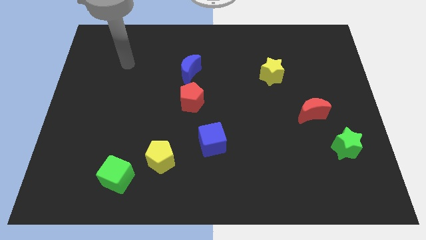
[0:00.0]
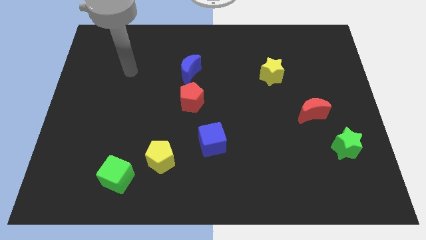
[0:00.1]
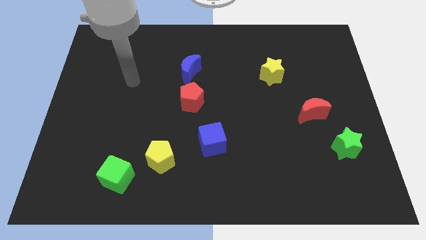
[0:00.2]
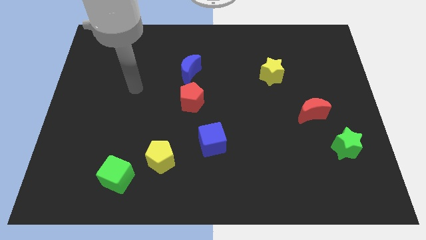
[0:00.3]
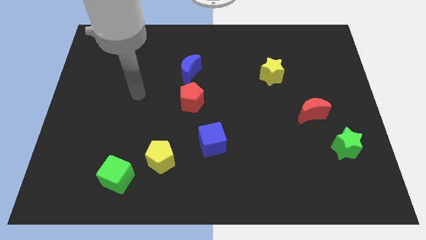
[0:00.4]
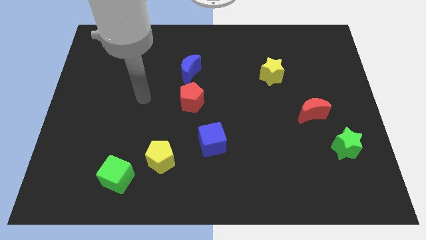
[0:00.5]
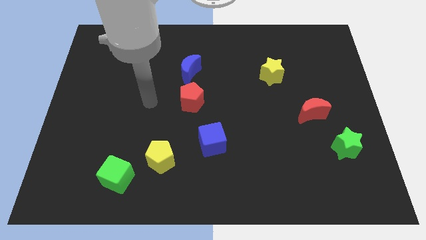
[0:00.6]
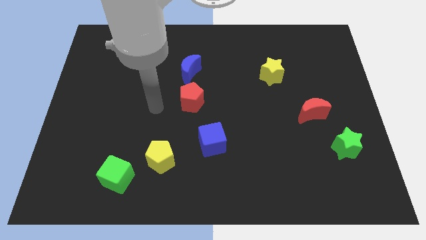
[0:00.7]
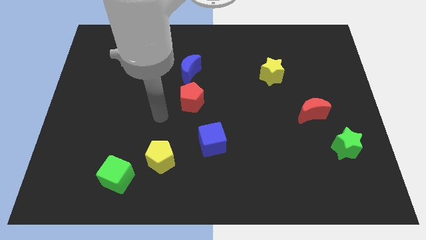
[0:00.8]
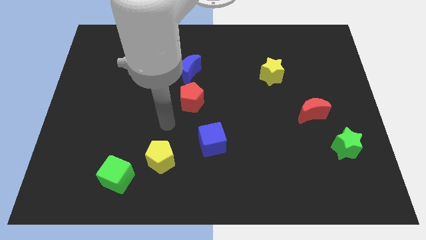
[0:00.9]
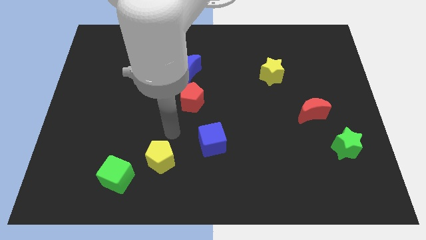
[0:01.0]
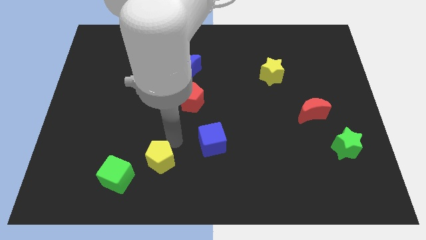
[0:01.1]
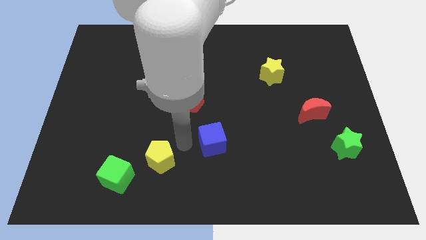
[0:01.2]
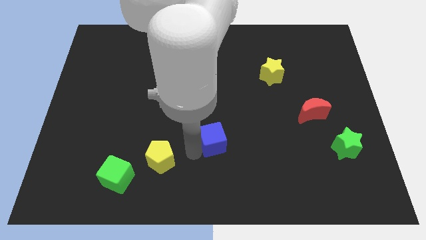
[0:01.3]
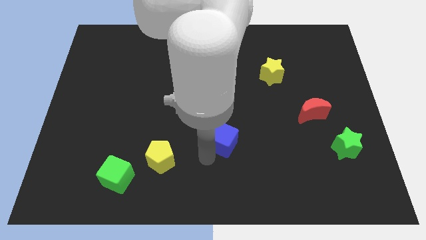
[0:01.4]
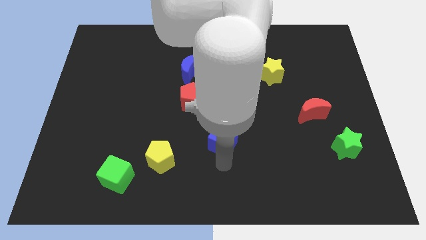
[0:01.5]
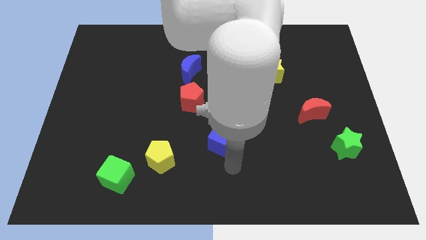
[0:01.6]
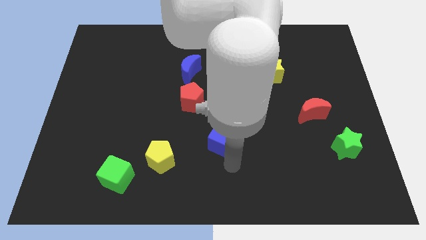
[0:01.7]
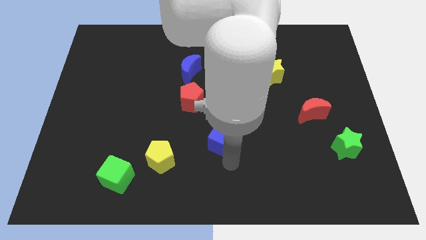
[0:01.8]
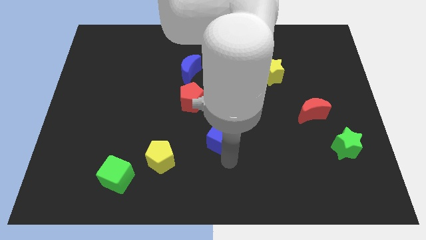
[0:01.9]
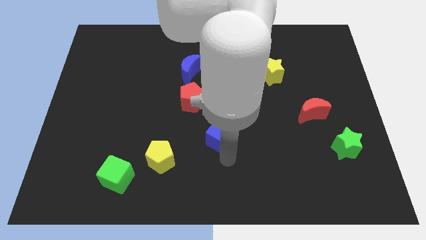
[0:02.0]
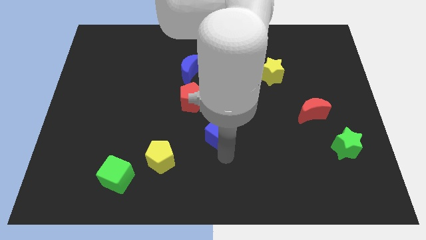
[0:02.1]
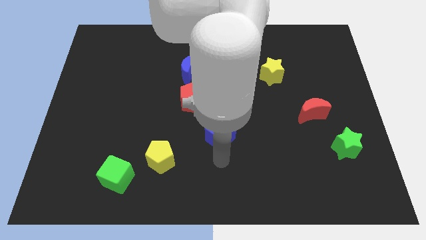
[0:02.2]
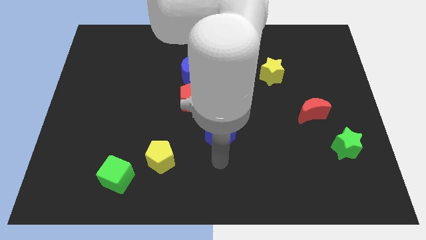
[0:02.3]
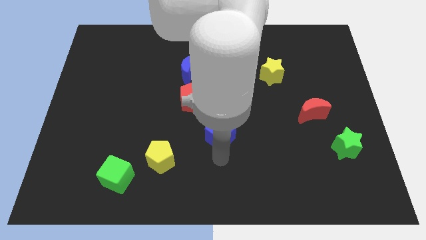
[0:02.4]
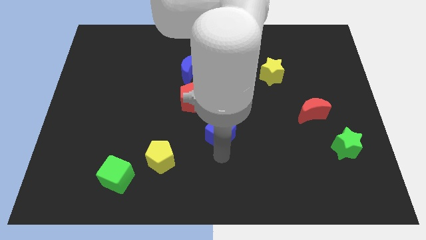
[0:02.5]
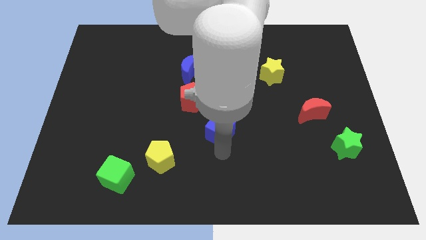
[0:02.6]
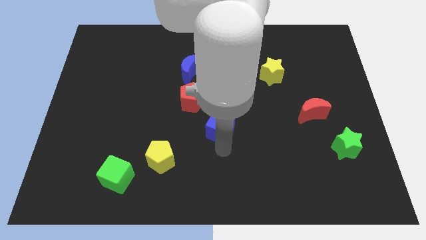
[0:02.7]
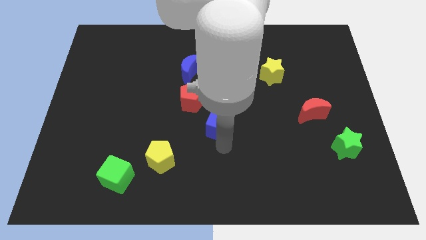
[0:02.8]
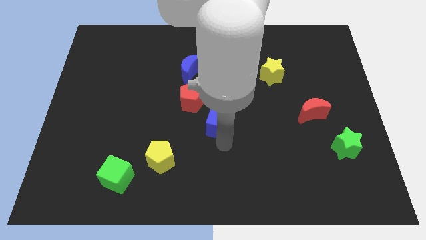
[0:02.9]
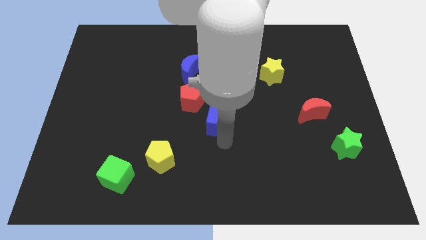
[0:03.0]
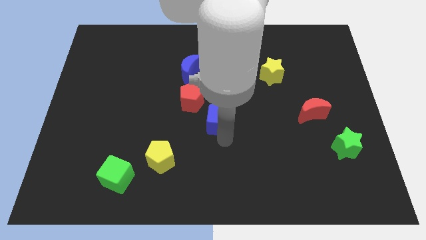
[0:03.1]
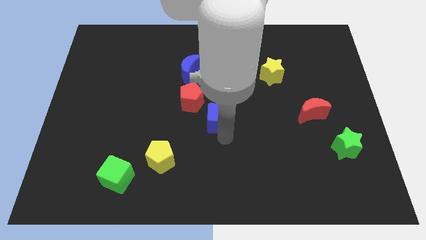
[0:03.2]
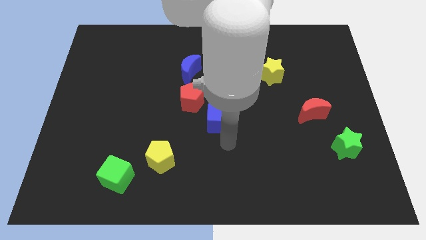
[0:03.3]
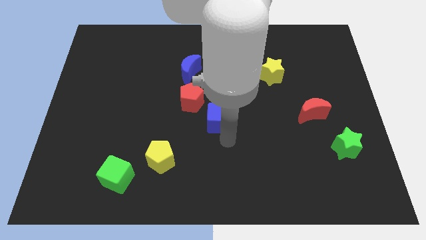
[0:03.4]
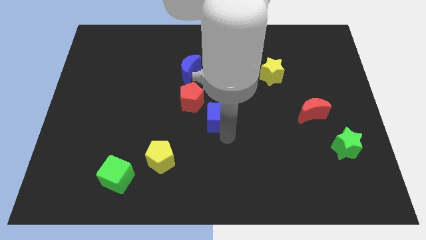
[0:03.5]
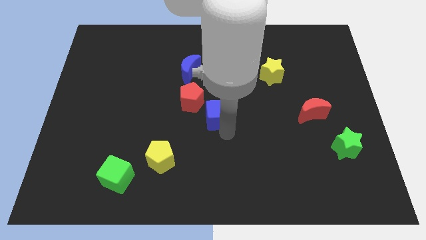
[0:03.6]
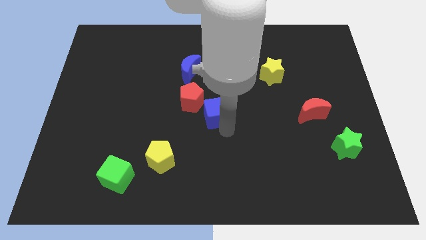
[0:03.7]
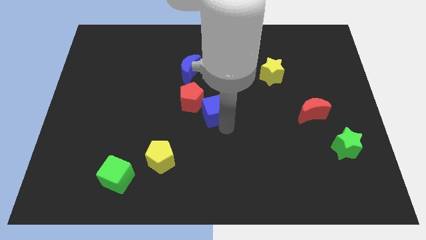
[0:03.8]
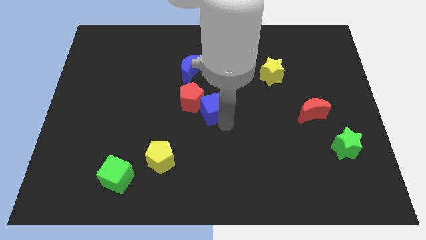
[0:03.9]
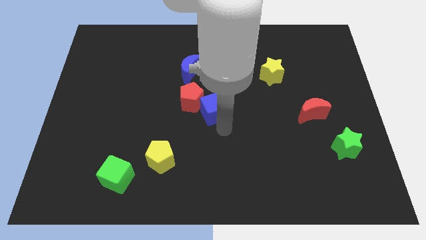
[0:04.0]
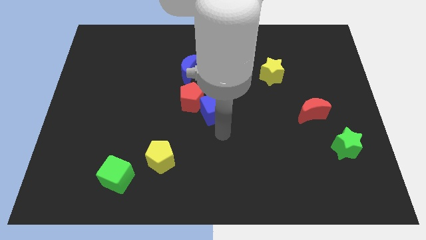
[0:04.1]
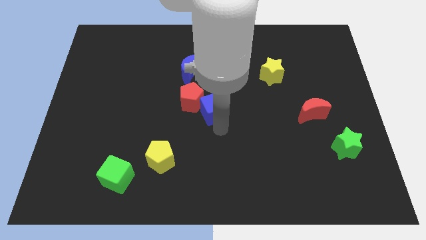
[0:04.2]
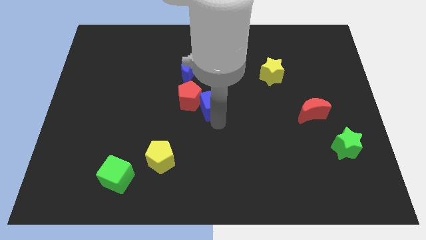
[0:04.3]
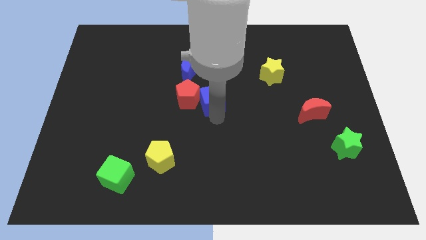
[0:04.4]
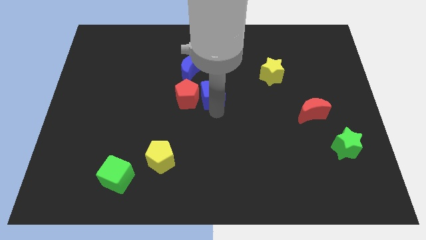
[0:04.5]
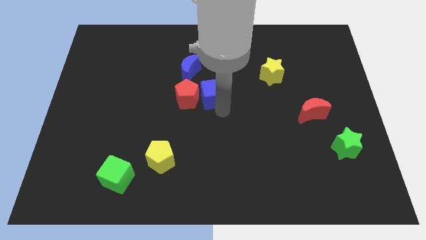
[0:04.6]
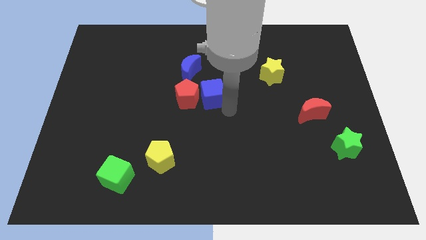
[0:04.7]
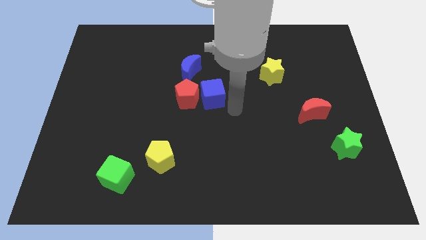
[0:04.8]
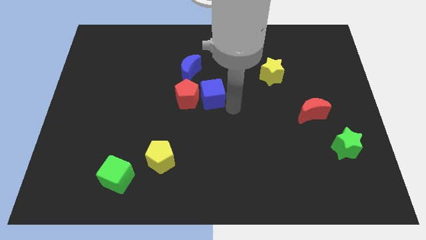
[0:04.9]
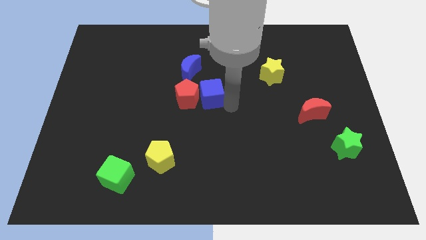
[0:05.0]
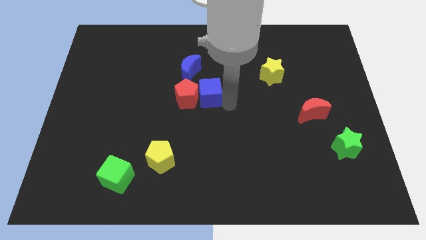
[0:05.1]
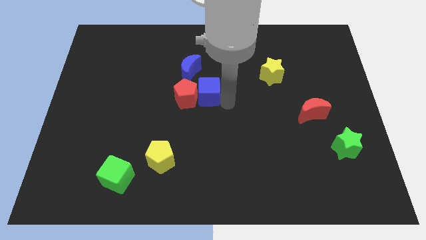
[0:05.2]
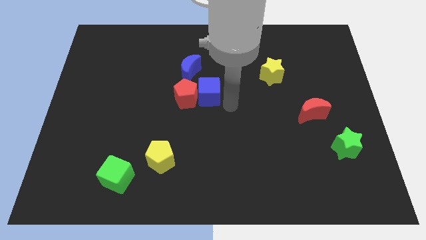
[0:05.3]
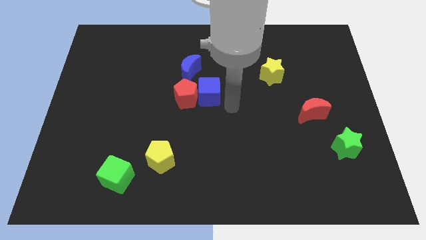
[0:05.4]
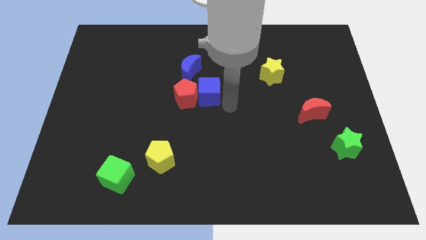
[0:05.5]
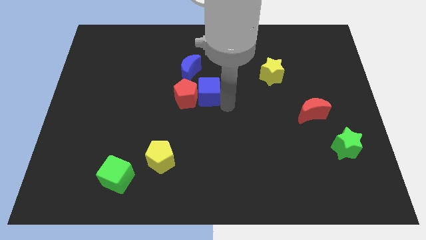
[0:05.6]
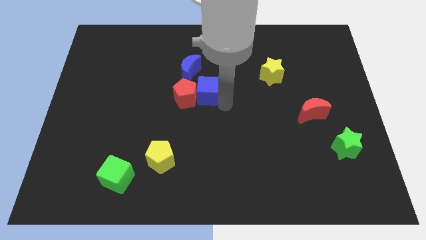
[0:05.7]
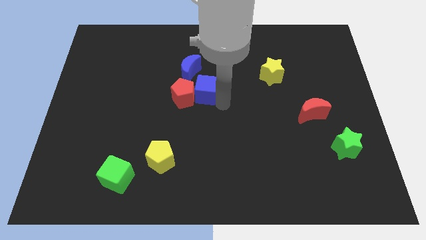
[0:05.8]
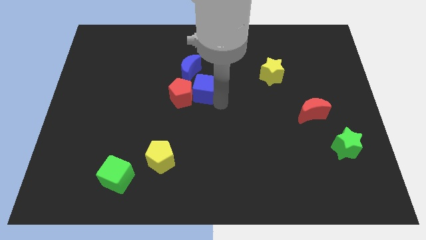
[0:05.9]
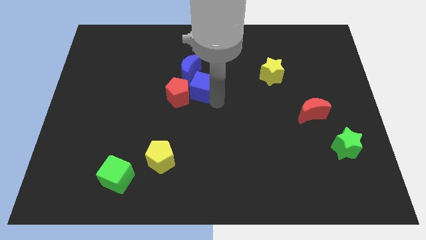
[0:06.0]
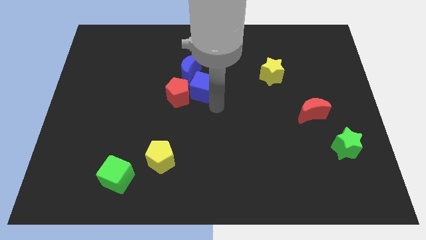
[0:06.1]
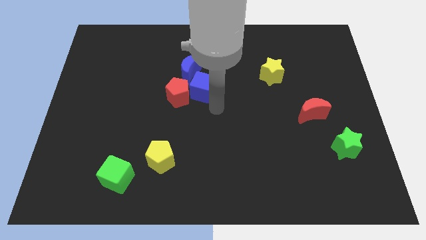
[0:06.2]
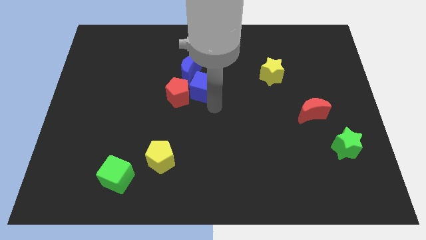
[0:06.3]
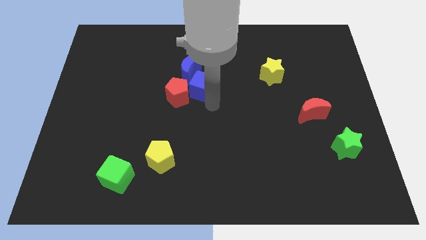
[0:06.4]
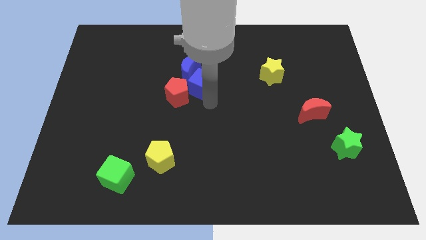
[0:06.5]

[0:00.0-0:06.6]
put the blue cube next to the blue moon
